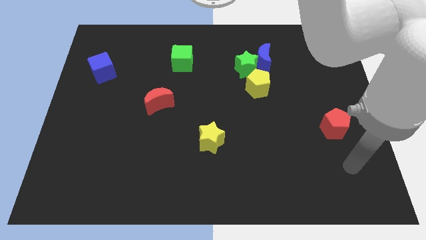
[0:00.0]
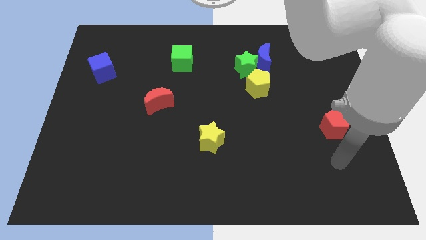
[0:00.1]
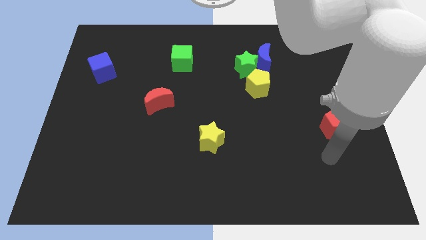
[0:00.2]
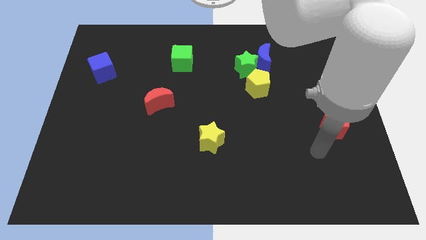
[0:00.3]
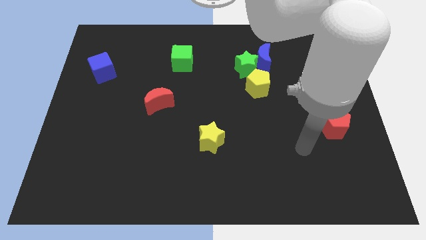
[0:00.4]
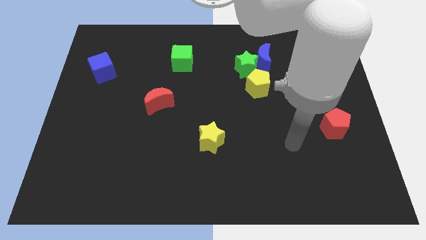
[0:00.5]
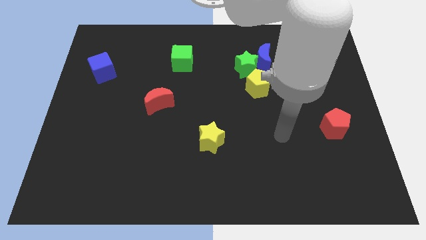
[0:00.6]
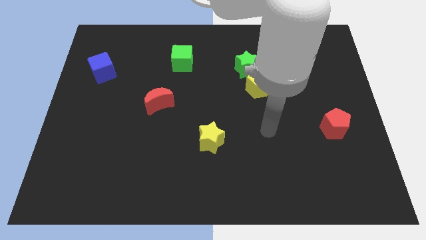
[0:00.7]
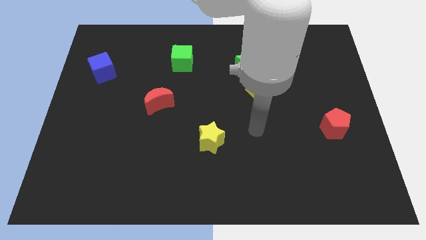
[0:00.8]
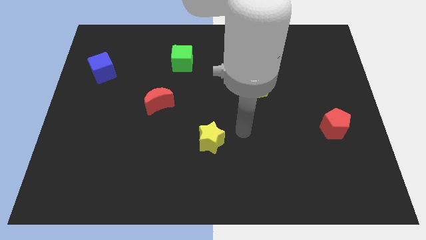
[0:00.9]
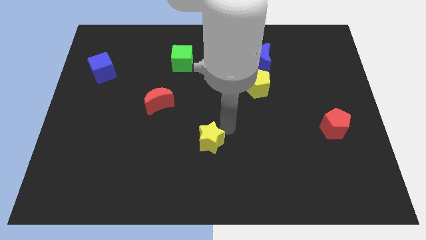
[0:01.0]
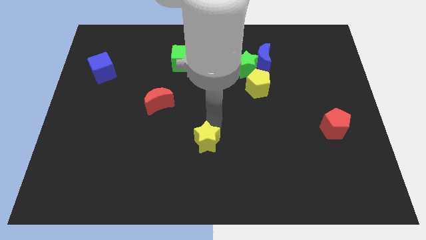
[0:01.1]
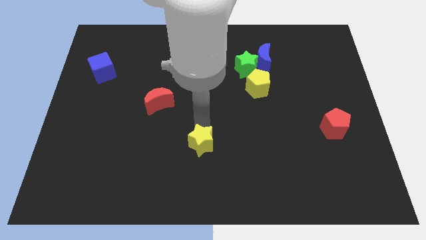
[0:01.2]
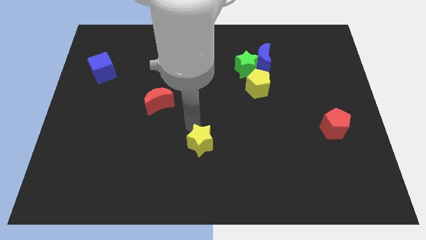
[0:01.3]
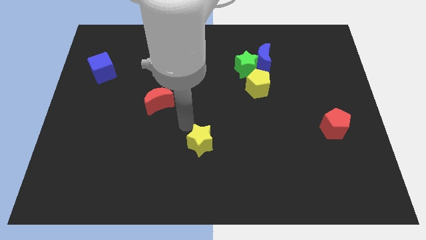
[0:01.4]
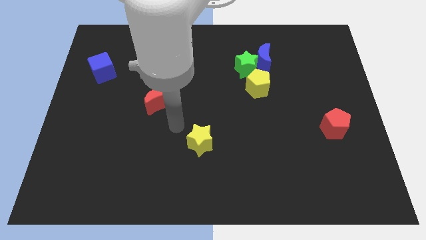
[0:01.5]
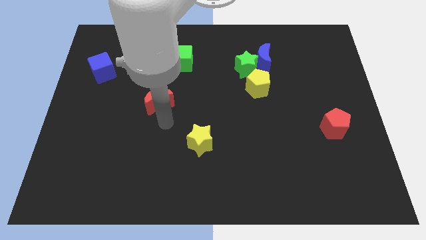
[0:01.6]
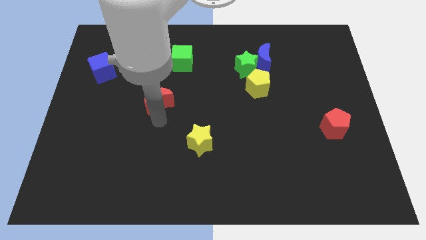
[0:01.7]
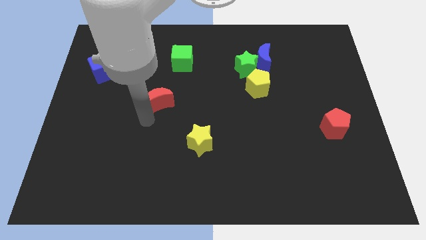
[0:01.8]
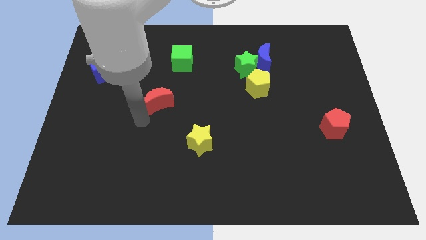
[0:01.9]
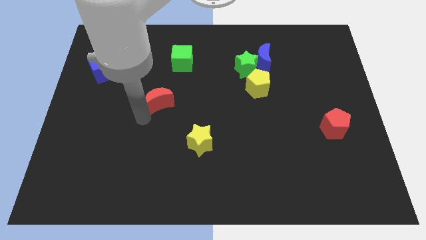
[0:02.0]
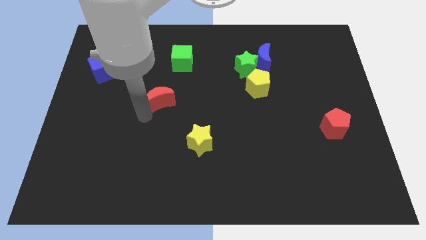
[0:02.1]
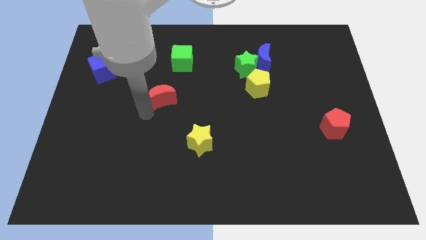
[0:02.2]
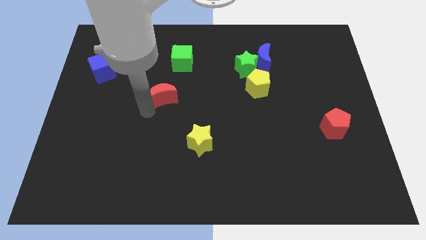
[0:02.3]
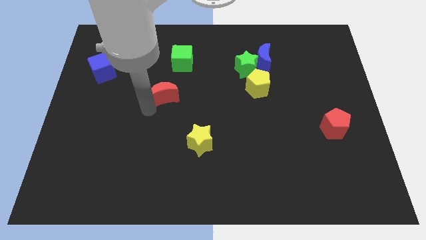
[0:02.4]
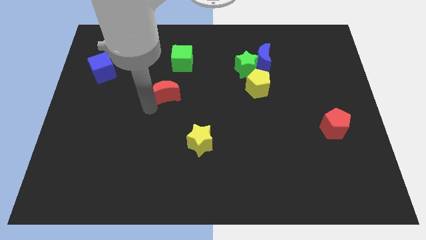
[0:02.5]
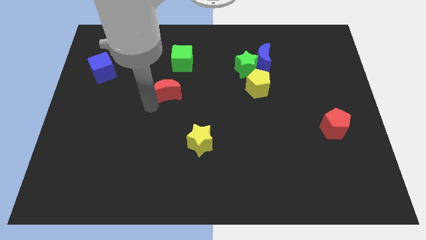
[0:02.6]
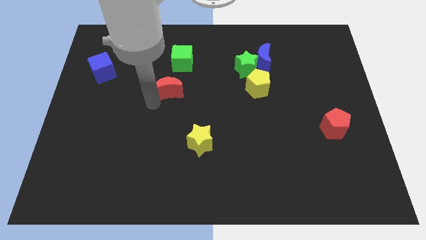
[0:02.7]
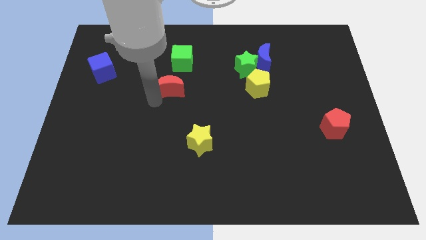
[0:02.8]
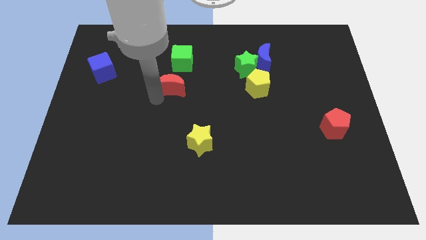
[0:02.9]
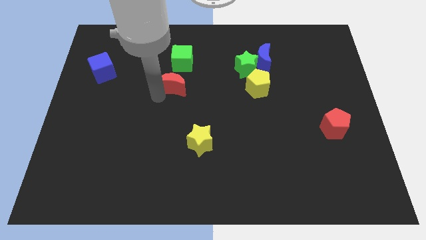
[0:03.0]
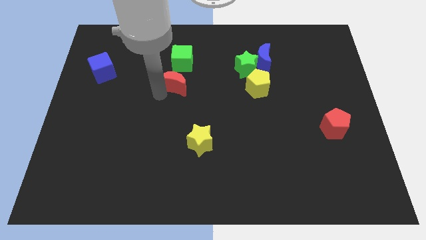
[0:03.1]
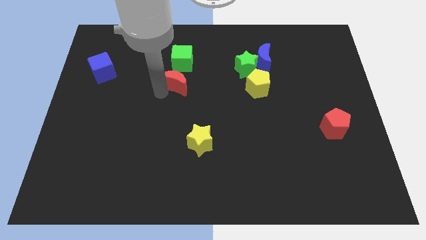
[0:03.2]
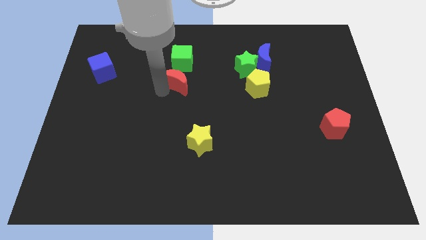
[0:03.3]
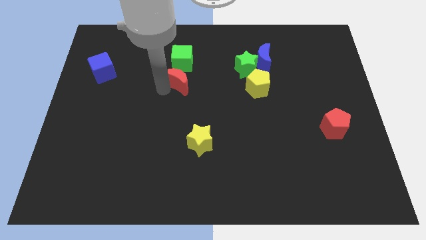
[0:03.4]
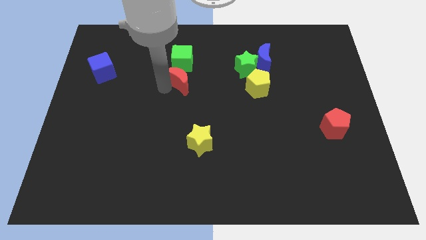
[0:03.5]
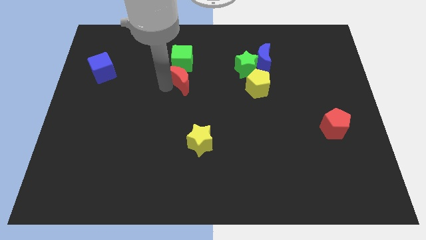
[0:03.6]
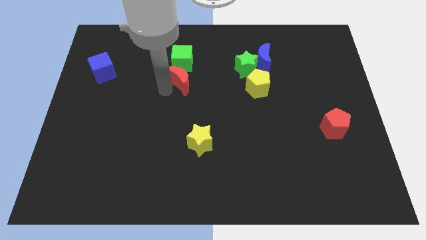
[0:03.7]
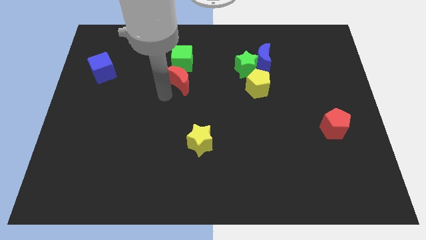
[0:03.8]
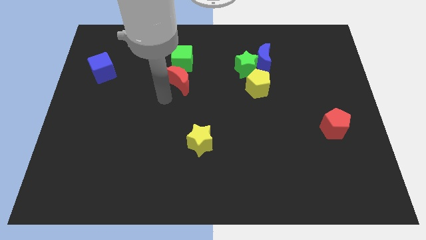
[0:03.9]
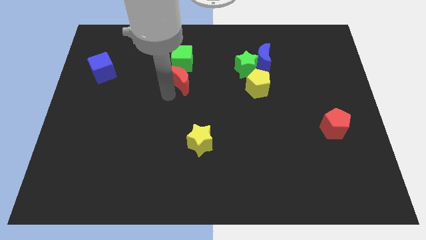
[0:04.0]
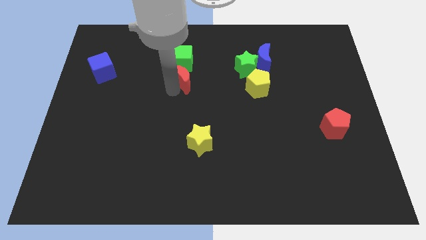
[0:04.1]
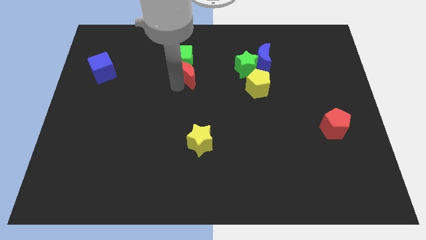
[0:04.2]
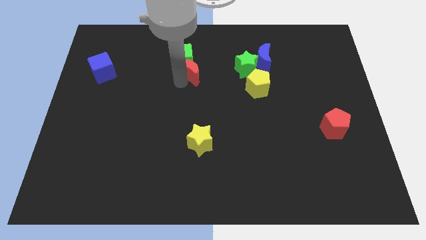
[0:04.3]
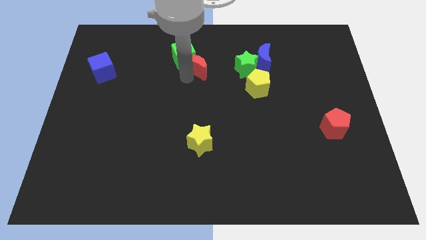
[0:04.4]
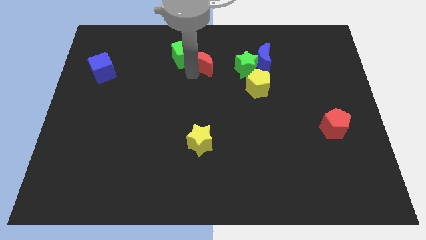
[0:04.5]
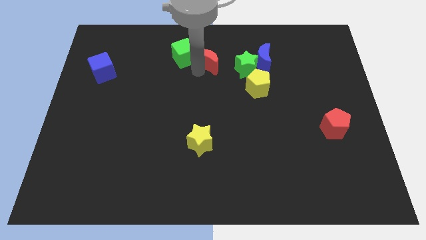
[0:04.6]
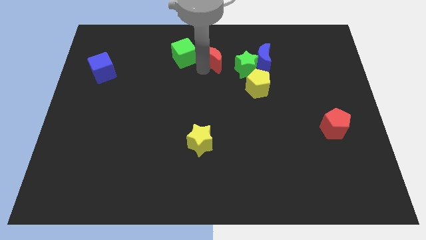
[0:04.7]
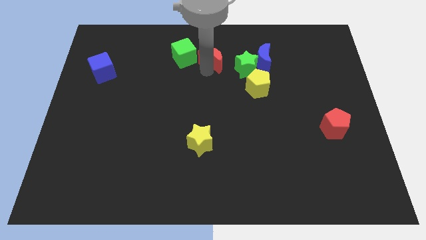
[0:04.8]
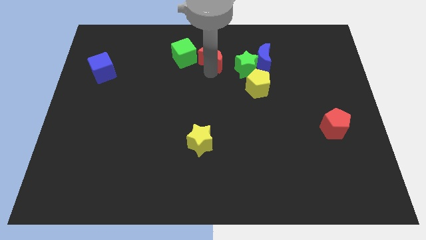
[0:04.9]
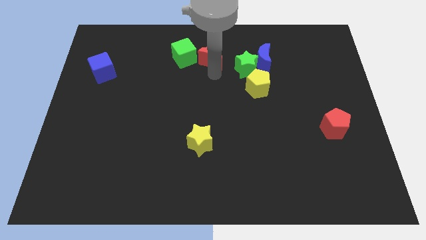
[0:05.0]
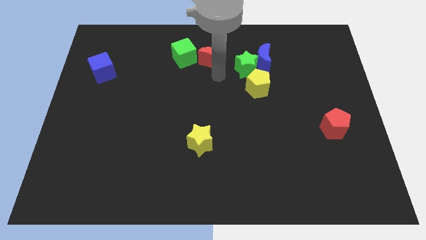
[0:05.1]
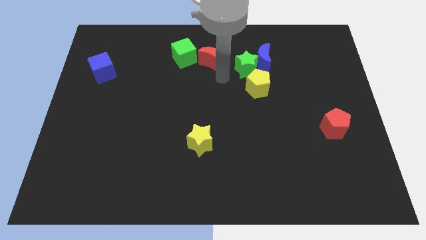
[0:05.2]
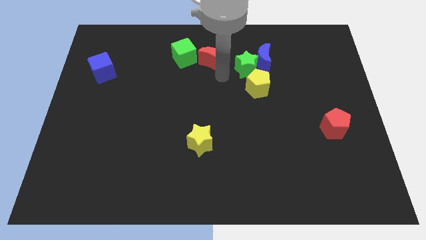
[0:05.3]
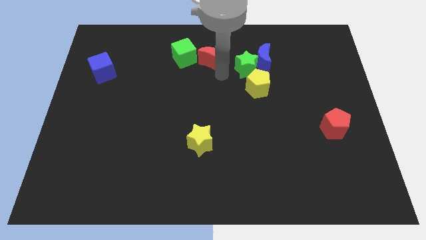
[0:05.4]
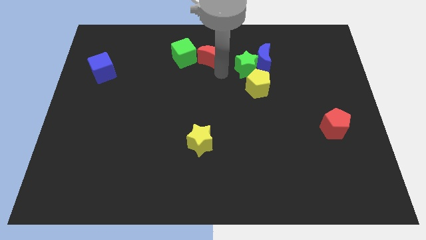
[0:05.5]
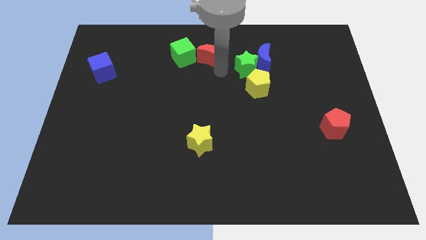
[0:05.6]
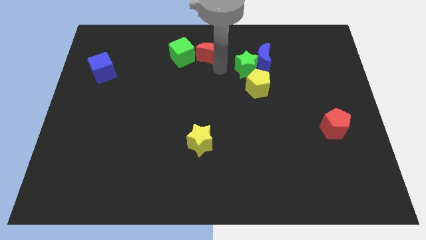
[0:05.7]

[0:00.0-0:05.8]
push the red moon to the top side
